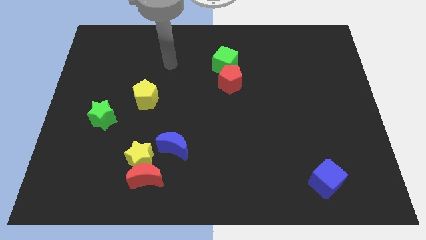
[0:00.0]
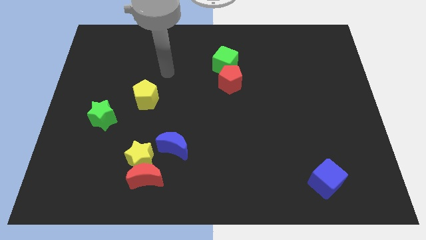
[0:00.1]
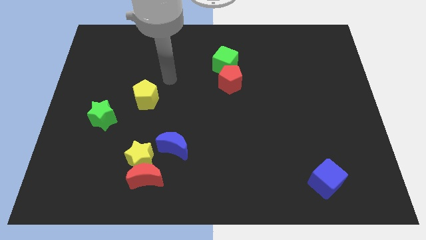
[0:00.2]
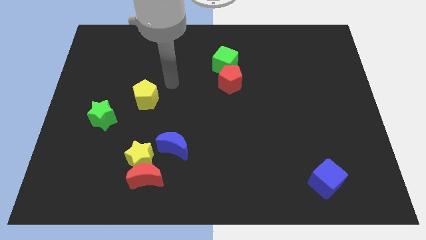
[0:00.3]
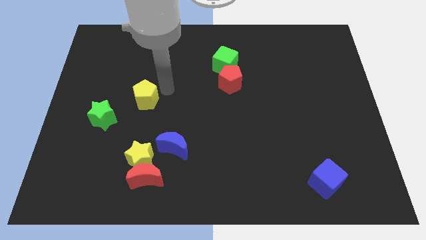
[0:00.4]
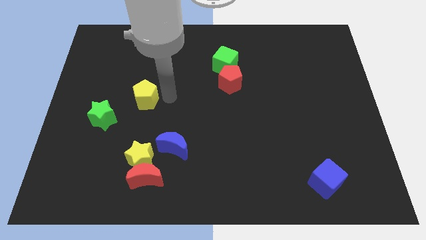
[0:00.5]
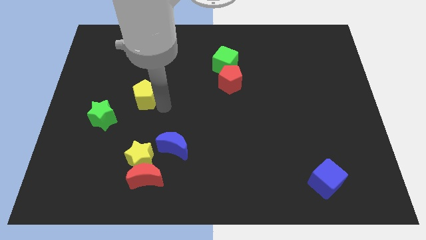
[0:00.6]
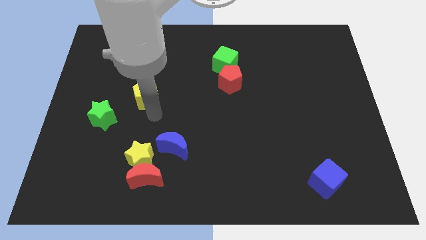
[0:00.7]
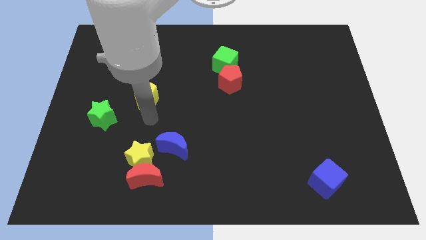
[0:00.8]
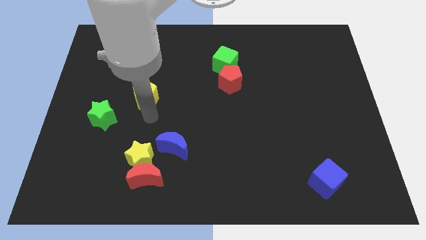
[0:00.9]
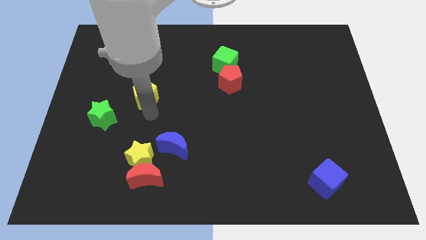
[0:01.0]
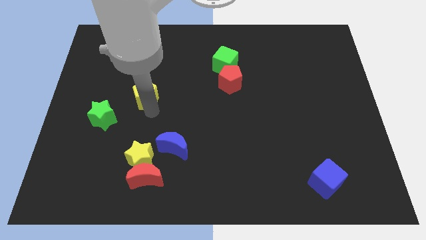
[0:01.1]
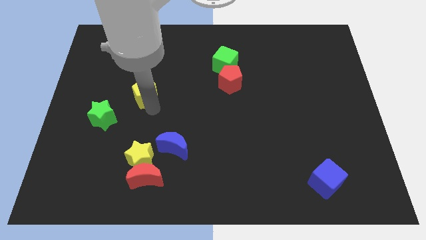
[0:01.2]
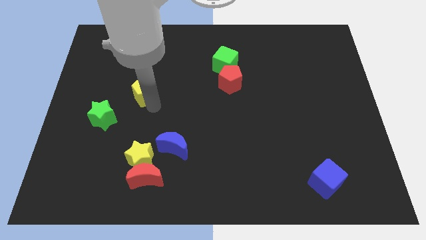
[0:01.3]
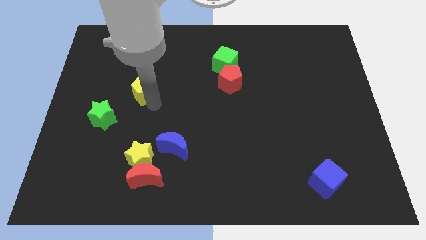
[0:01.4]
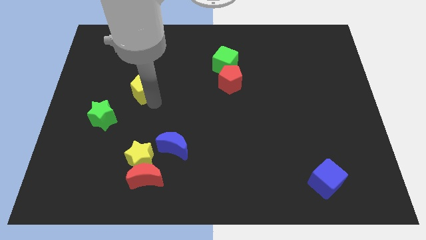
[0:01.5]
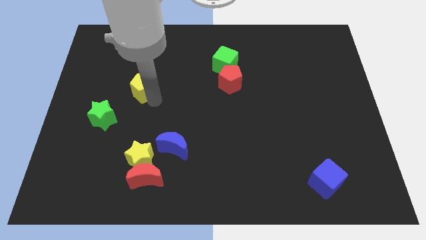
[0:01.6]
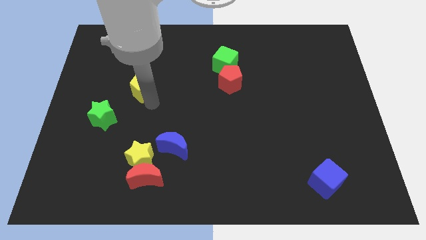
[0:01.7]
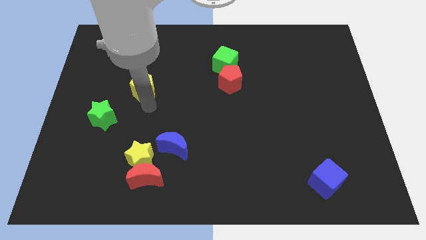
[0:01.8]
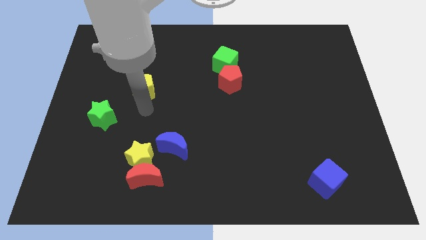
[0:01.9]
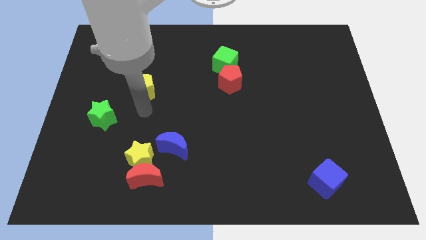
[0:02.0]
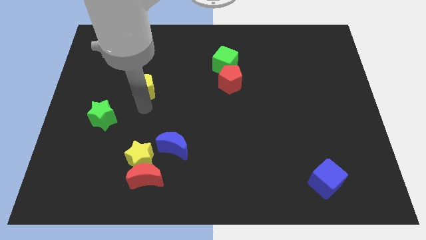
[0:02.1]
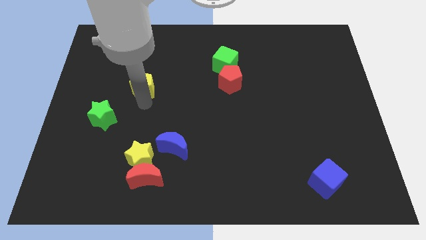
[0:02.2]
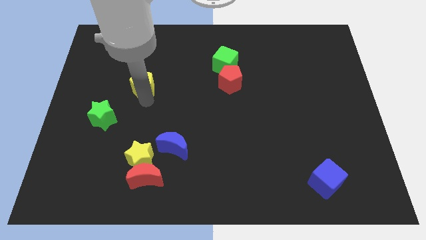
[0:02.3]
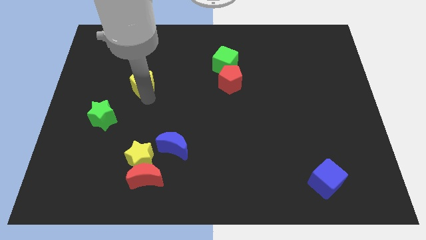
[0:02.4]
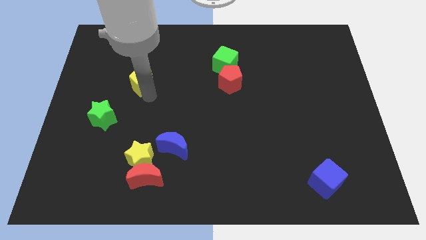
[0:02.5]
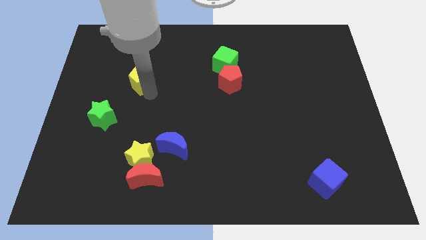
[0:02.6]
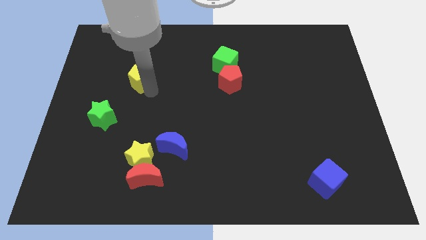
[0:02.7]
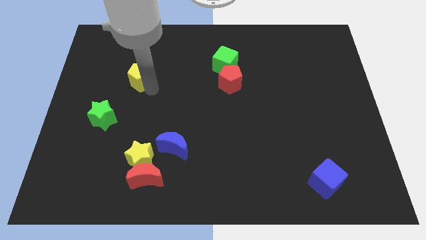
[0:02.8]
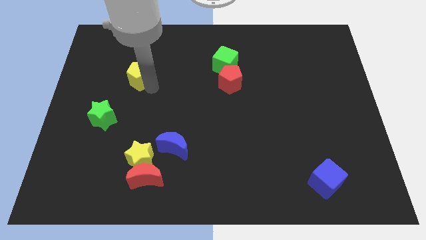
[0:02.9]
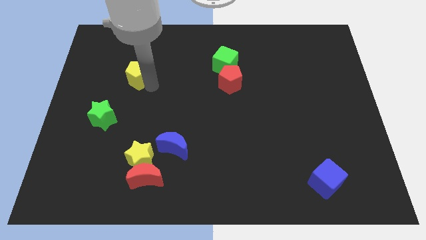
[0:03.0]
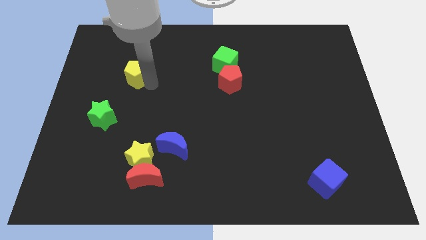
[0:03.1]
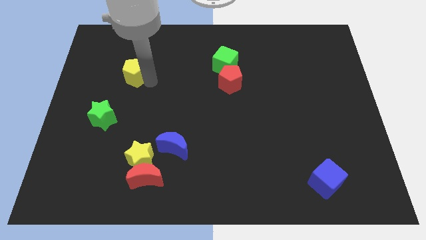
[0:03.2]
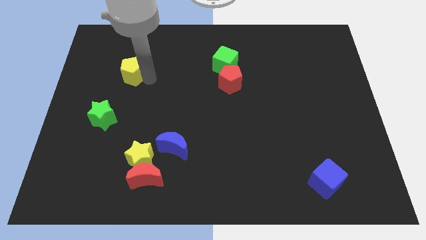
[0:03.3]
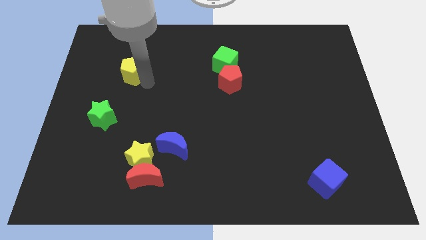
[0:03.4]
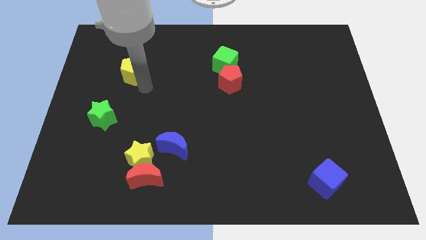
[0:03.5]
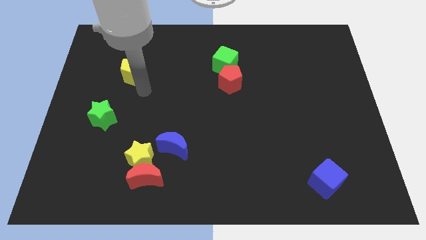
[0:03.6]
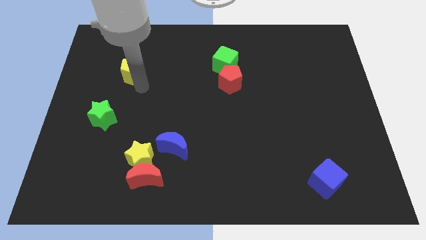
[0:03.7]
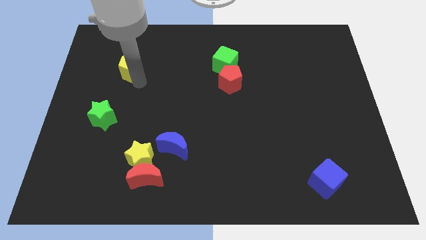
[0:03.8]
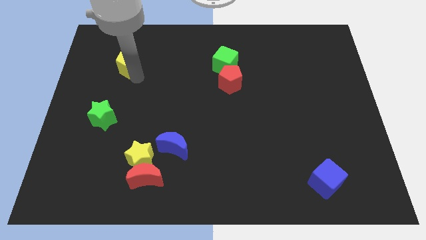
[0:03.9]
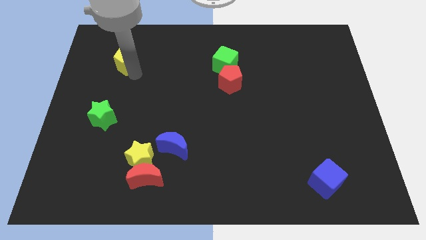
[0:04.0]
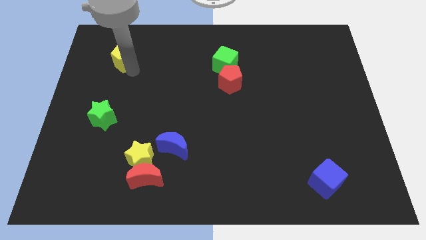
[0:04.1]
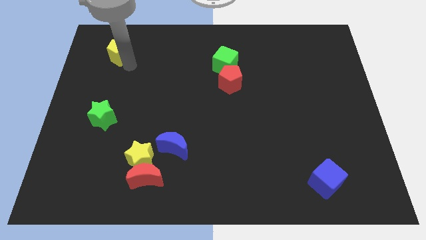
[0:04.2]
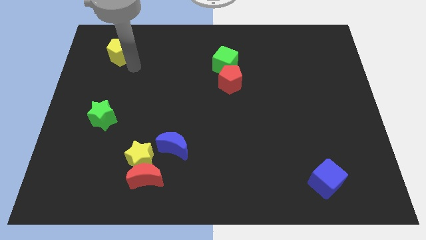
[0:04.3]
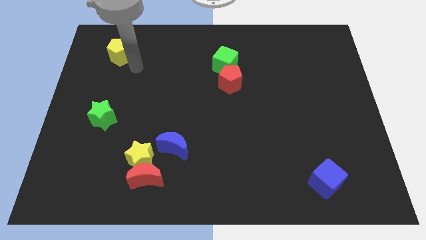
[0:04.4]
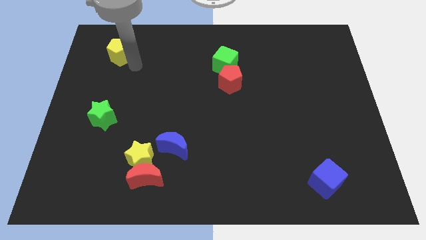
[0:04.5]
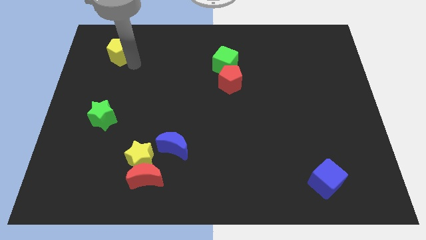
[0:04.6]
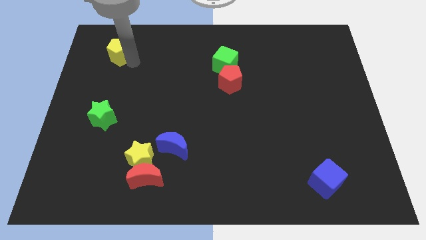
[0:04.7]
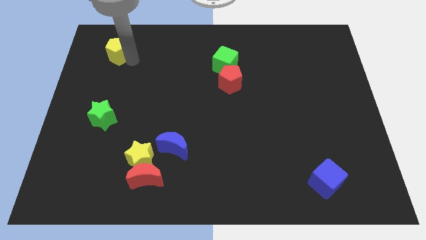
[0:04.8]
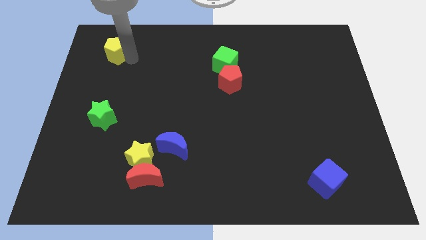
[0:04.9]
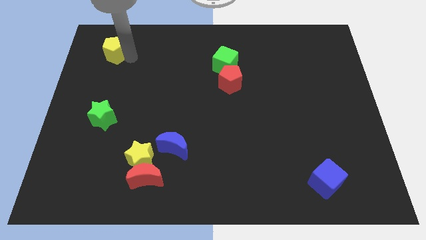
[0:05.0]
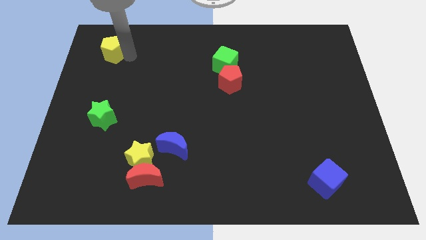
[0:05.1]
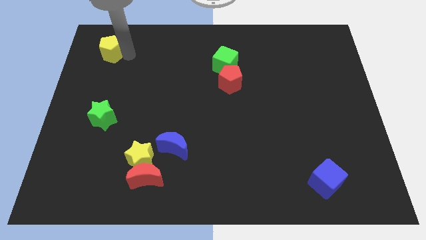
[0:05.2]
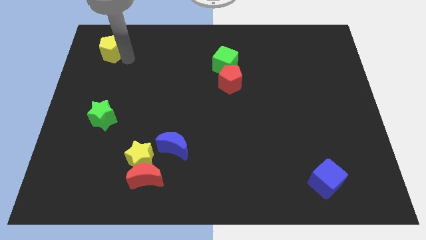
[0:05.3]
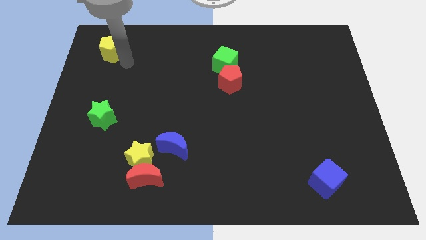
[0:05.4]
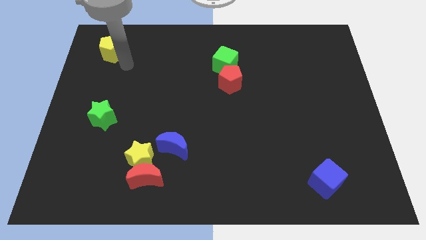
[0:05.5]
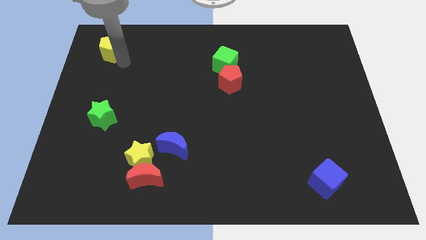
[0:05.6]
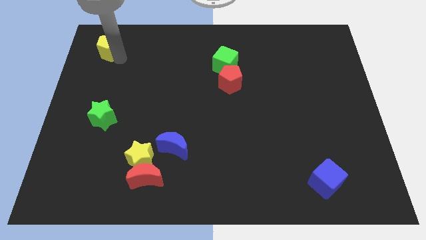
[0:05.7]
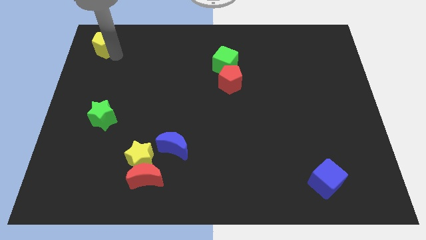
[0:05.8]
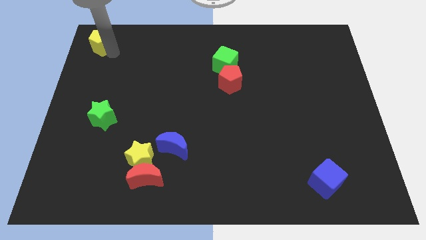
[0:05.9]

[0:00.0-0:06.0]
move the yellow pentagon to the top left of the board

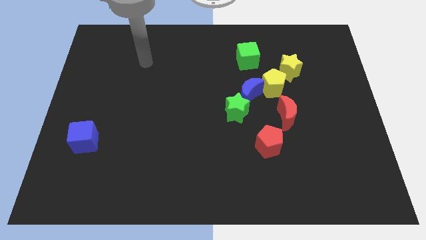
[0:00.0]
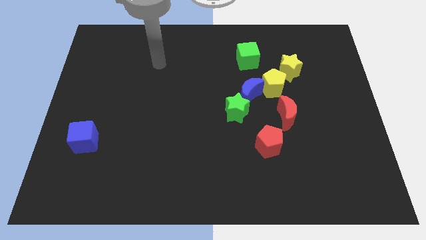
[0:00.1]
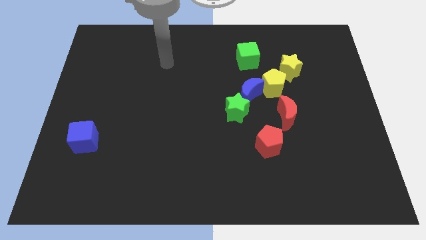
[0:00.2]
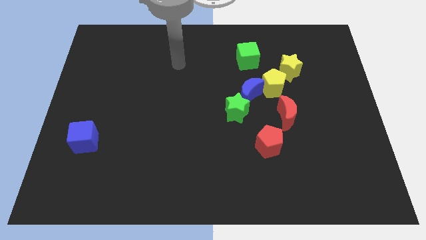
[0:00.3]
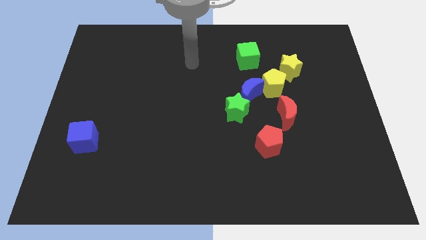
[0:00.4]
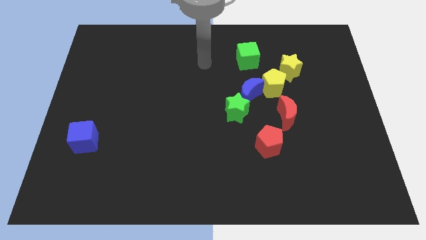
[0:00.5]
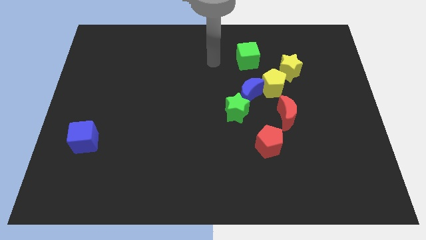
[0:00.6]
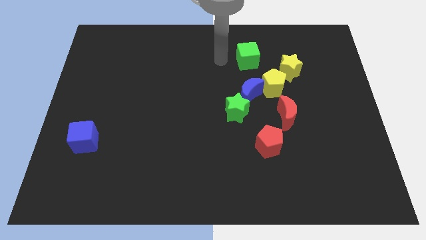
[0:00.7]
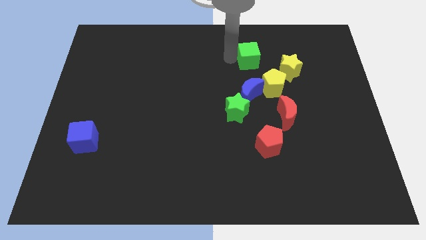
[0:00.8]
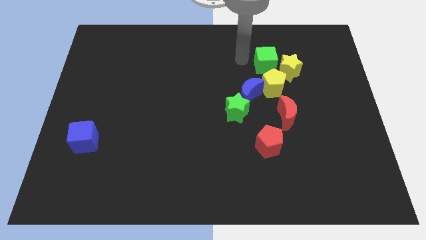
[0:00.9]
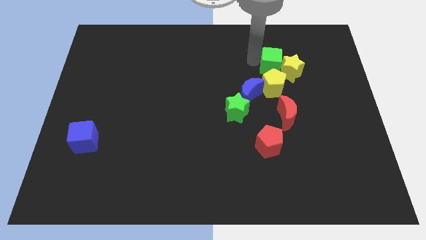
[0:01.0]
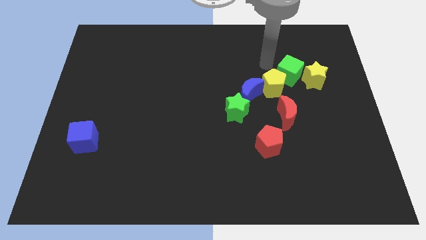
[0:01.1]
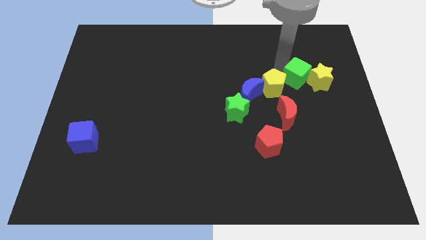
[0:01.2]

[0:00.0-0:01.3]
put the yellow star to the right side of the board

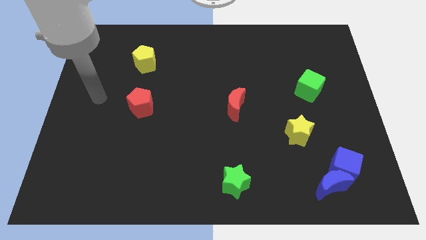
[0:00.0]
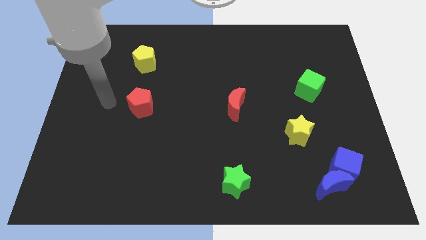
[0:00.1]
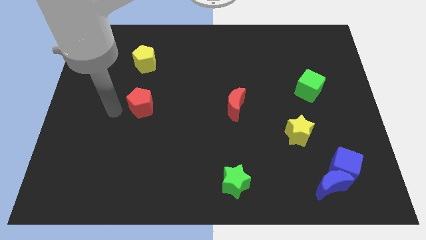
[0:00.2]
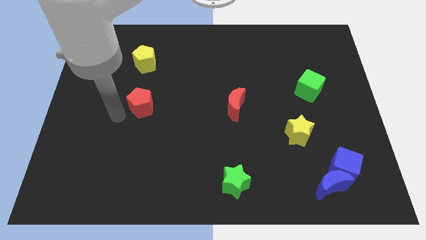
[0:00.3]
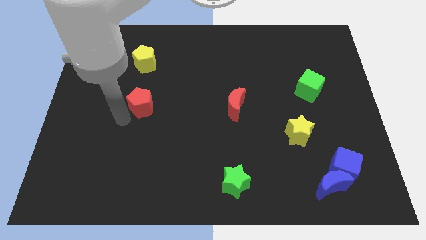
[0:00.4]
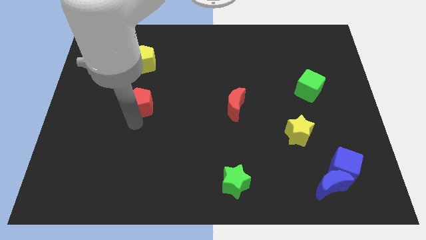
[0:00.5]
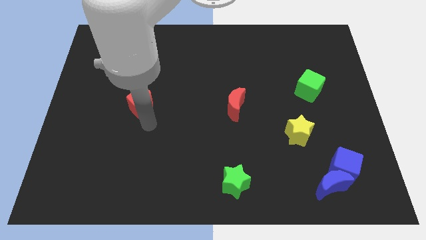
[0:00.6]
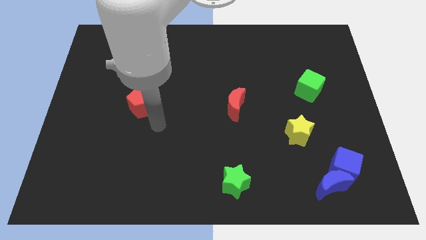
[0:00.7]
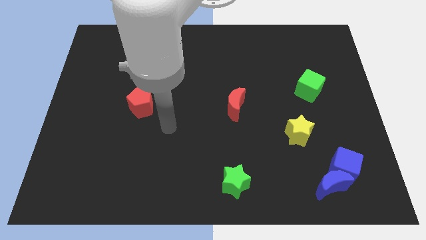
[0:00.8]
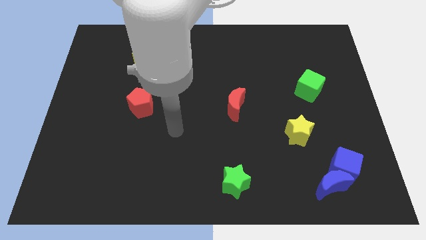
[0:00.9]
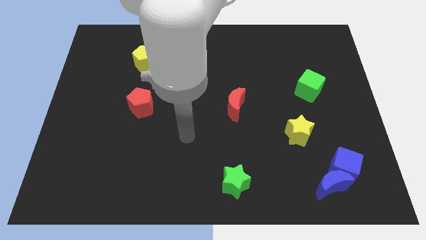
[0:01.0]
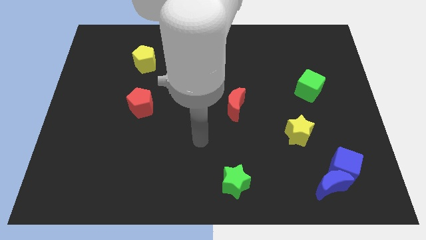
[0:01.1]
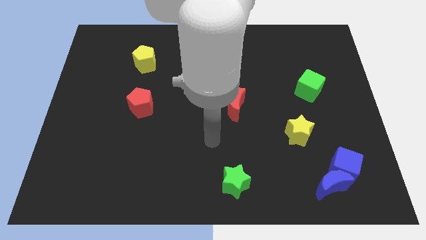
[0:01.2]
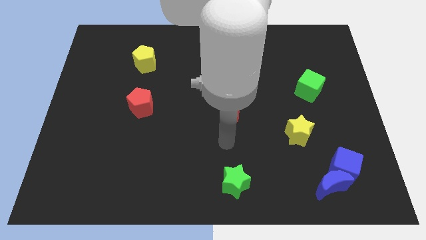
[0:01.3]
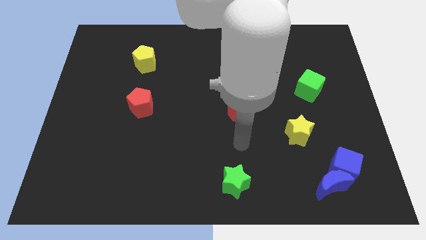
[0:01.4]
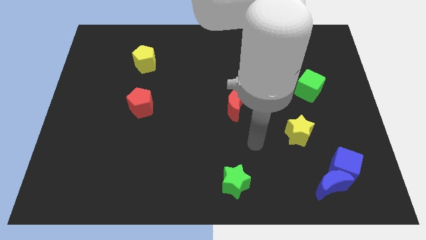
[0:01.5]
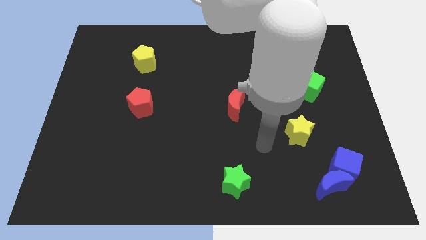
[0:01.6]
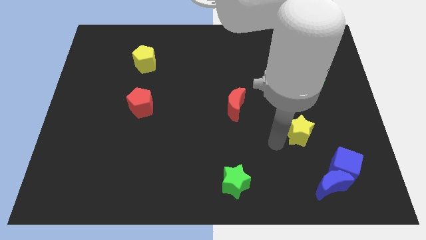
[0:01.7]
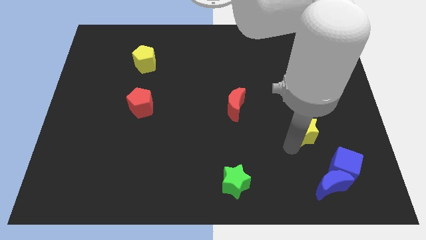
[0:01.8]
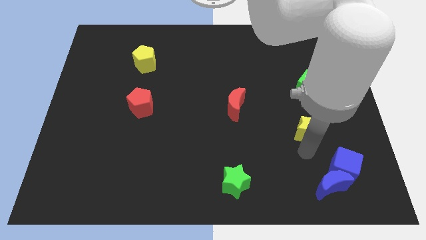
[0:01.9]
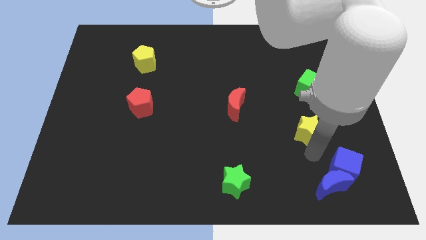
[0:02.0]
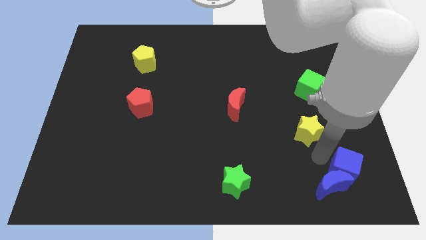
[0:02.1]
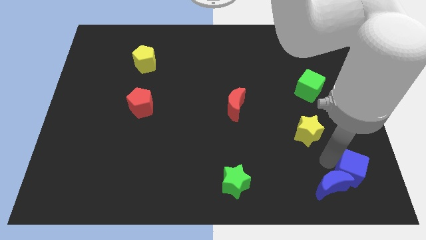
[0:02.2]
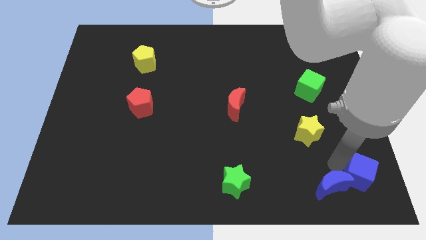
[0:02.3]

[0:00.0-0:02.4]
put the blue cube to the lower right corner
